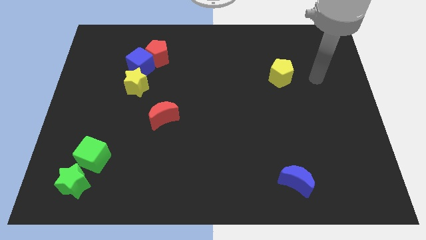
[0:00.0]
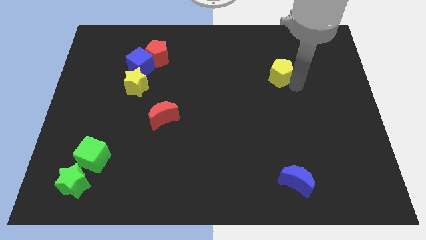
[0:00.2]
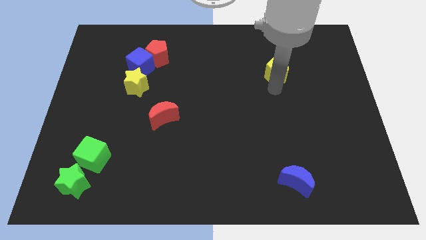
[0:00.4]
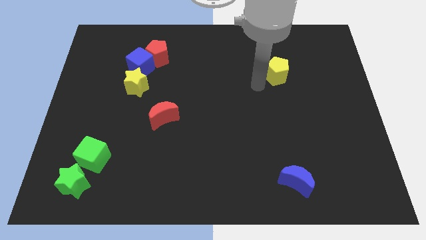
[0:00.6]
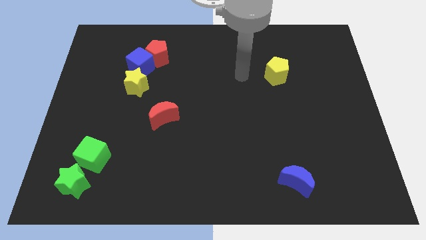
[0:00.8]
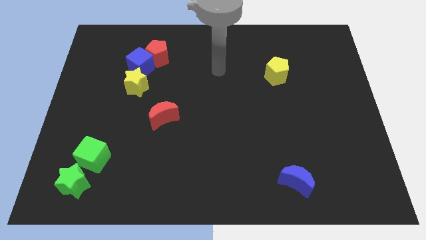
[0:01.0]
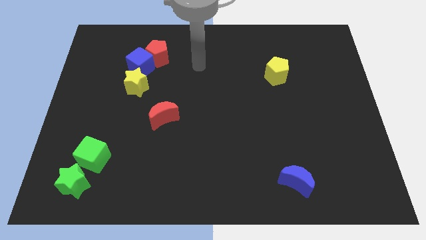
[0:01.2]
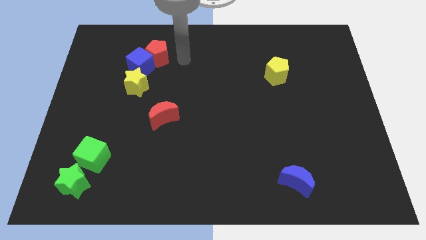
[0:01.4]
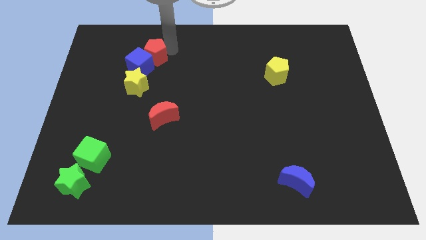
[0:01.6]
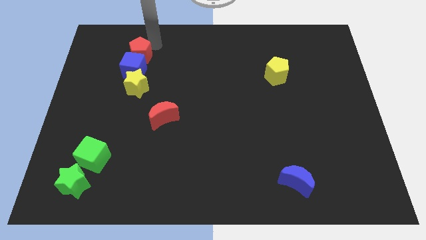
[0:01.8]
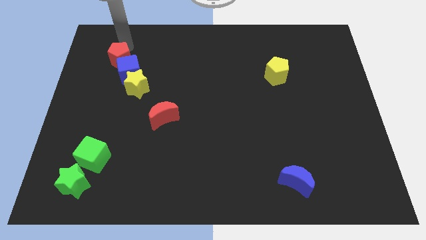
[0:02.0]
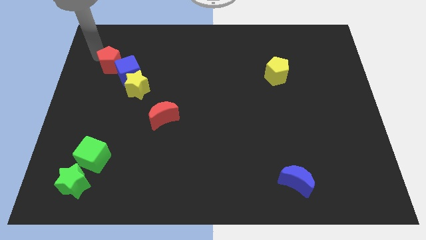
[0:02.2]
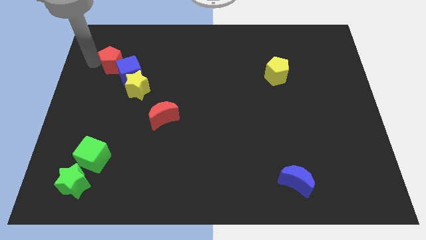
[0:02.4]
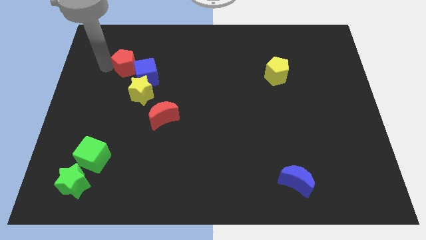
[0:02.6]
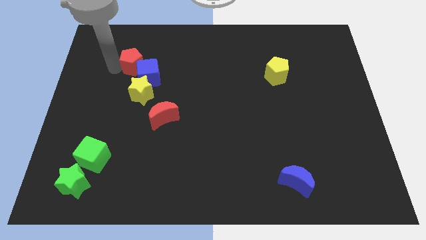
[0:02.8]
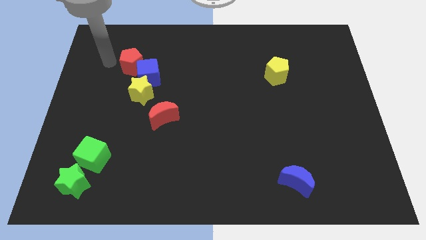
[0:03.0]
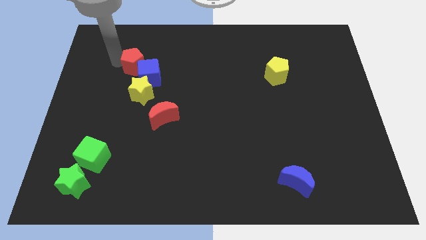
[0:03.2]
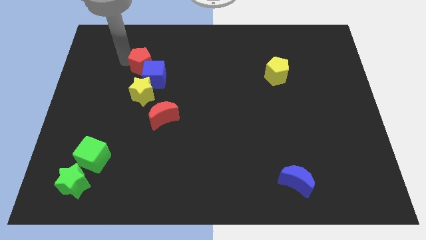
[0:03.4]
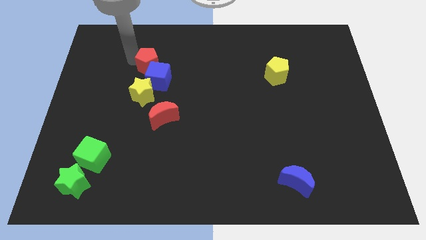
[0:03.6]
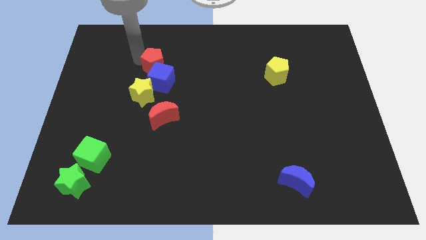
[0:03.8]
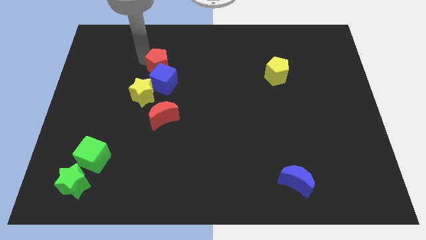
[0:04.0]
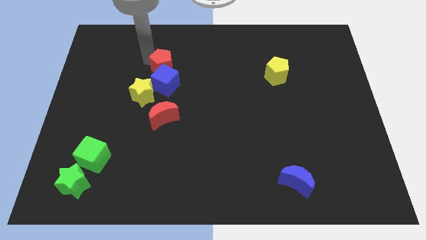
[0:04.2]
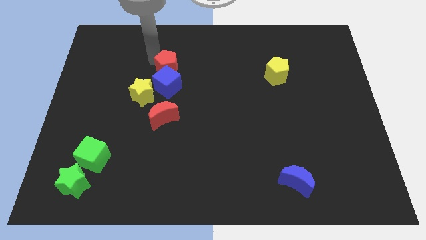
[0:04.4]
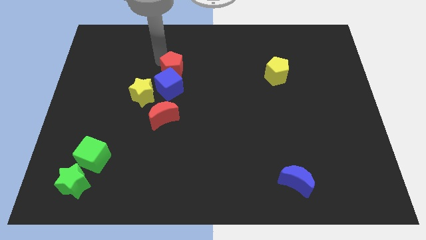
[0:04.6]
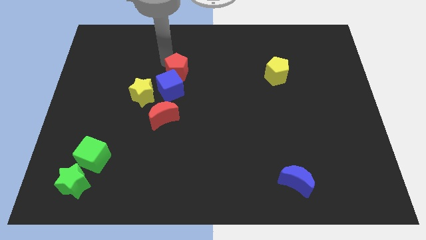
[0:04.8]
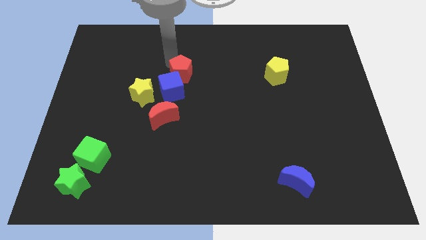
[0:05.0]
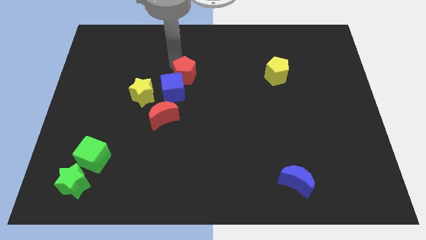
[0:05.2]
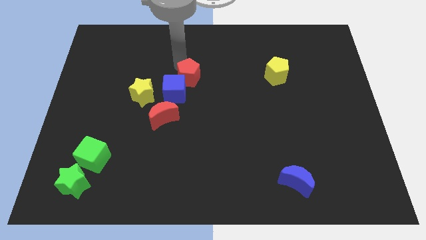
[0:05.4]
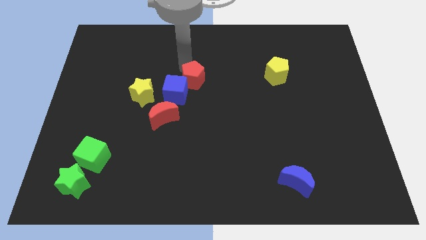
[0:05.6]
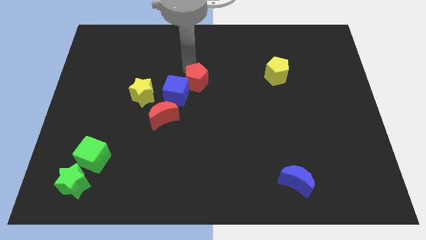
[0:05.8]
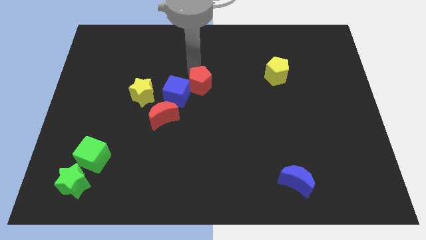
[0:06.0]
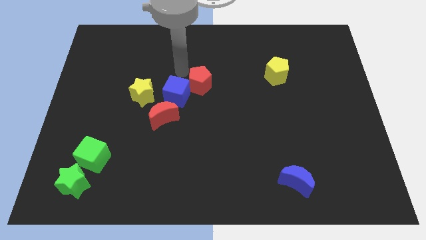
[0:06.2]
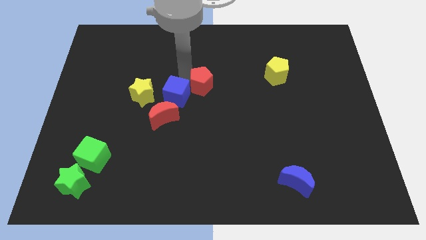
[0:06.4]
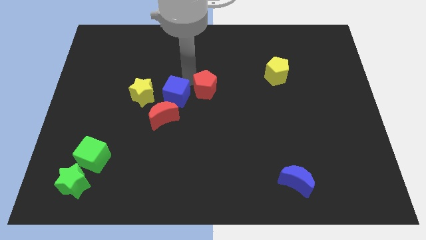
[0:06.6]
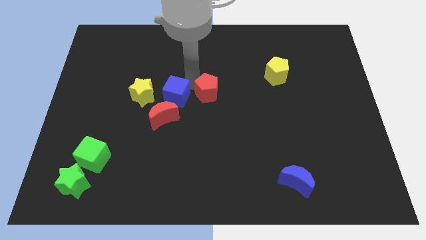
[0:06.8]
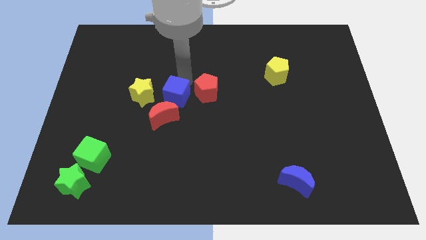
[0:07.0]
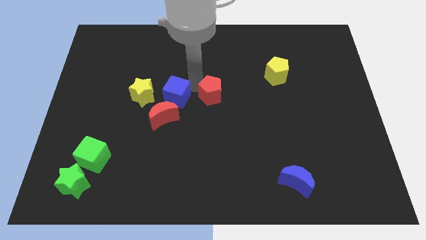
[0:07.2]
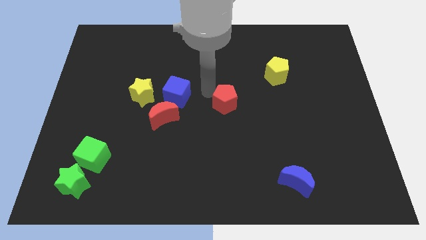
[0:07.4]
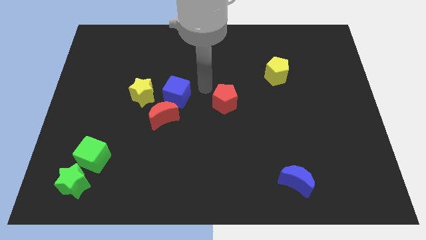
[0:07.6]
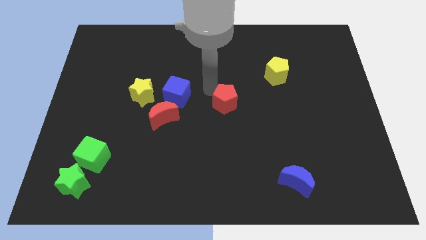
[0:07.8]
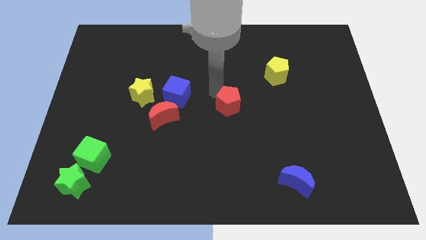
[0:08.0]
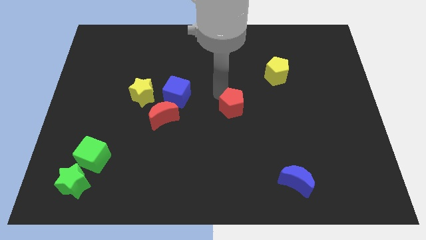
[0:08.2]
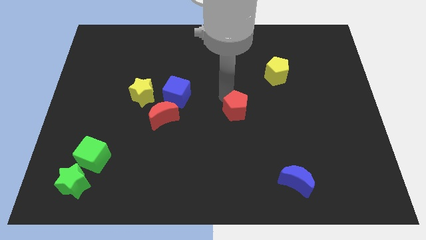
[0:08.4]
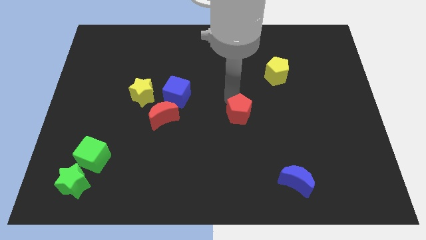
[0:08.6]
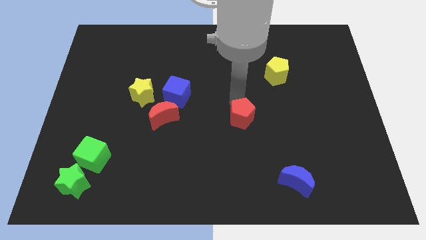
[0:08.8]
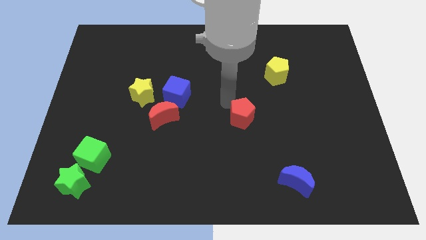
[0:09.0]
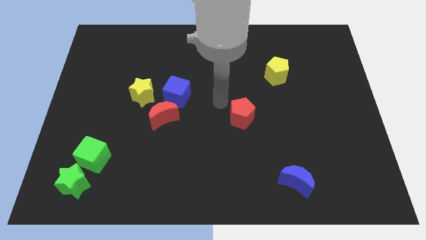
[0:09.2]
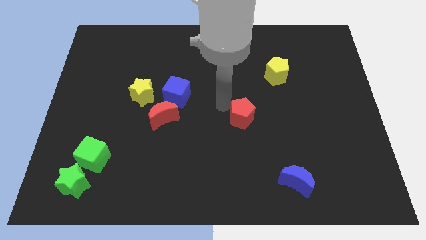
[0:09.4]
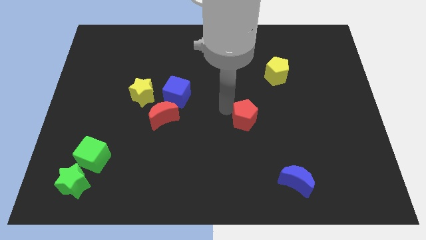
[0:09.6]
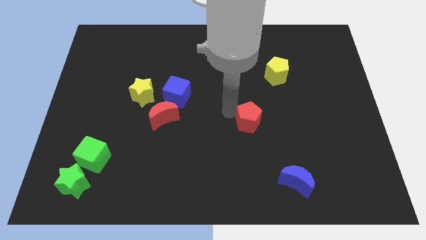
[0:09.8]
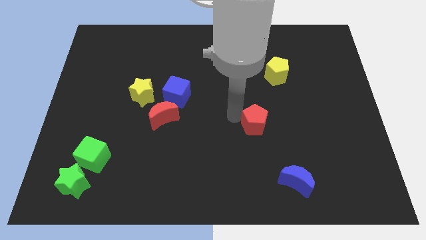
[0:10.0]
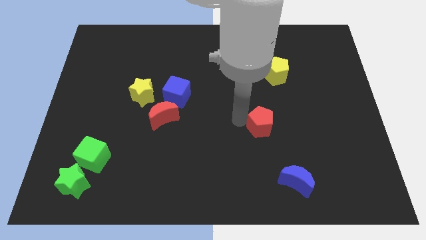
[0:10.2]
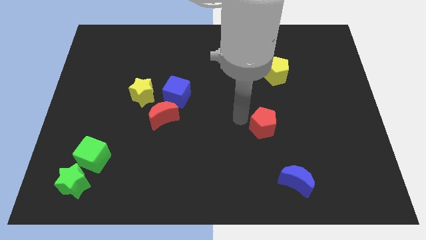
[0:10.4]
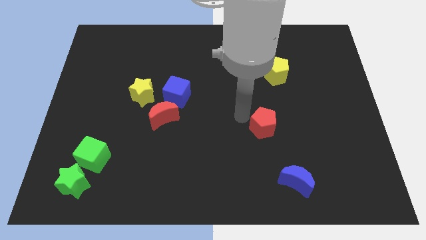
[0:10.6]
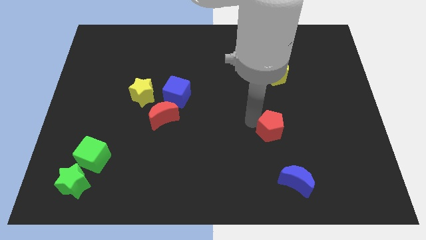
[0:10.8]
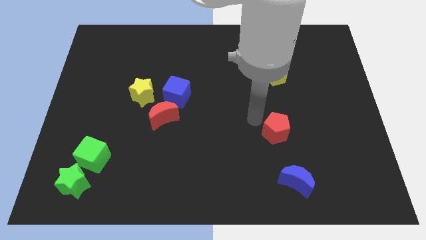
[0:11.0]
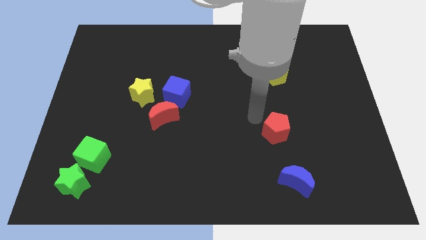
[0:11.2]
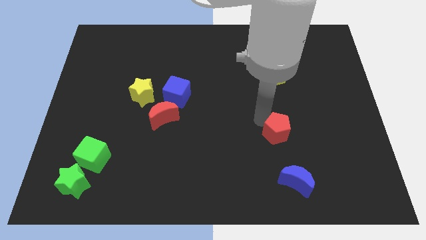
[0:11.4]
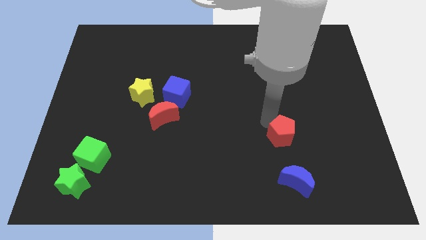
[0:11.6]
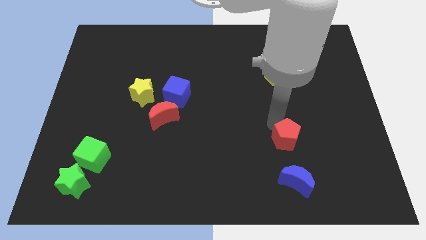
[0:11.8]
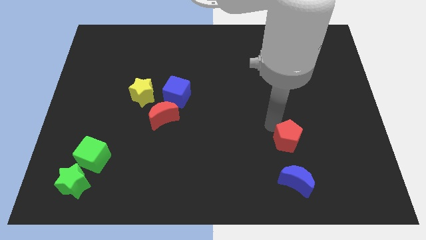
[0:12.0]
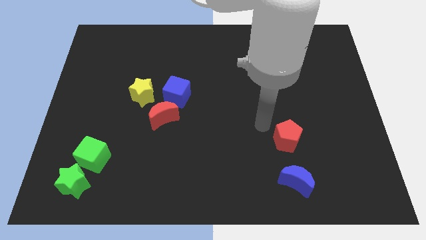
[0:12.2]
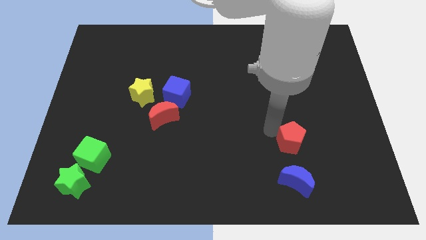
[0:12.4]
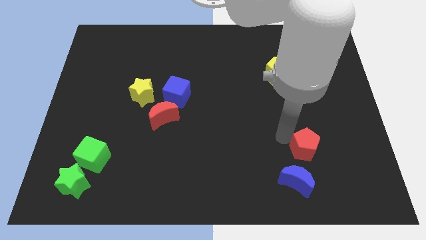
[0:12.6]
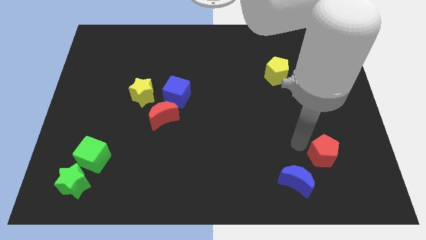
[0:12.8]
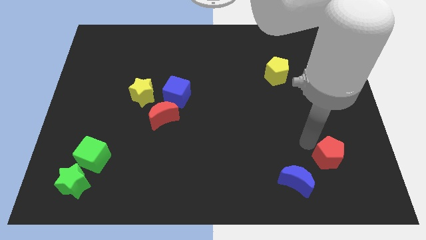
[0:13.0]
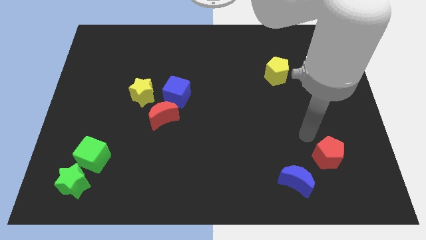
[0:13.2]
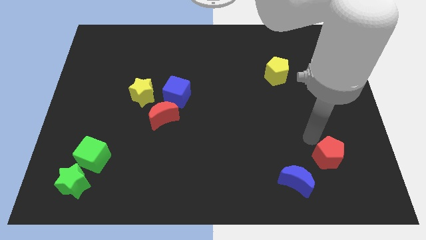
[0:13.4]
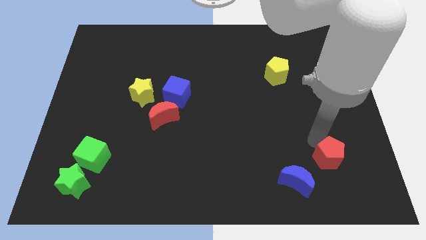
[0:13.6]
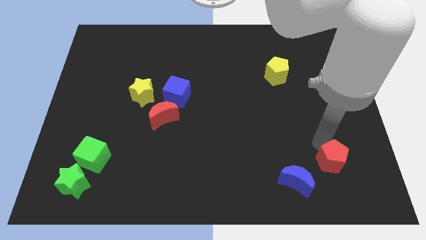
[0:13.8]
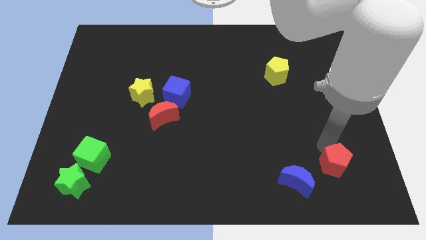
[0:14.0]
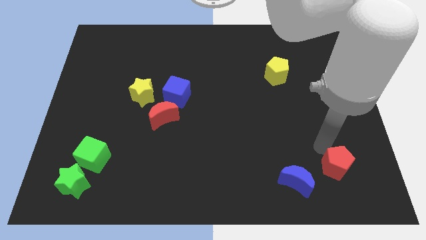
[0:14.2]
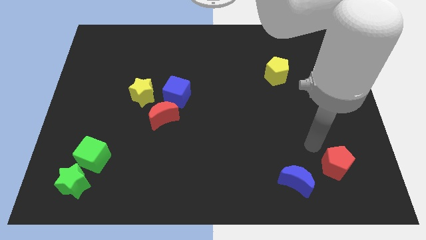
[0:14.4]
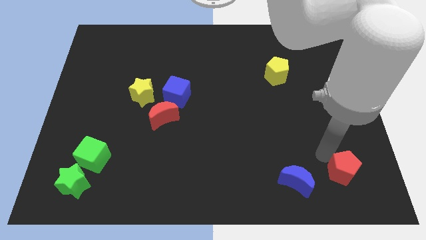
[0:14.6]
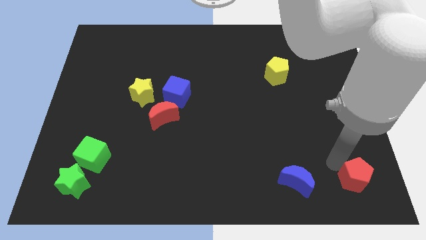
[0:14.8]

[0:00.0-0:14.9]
put the red pentagon to the lower right corner
